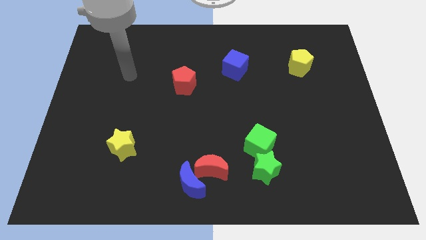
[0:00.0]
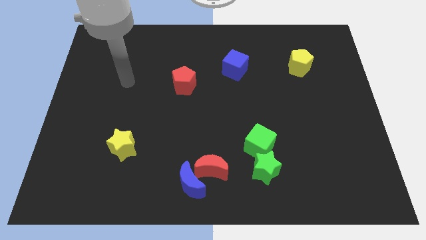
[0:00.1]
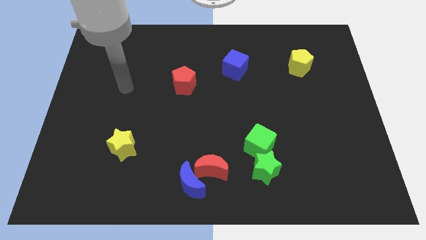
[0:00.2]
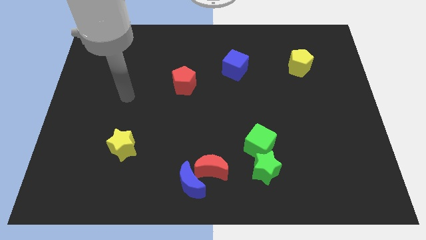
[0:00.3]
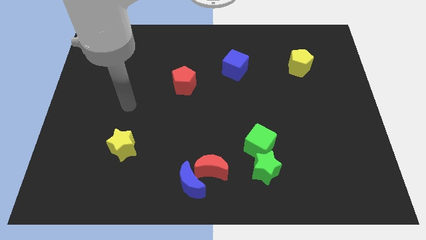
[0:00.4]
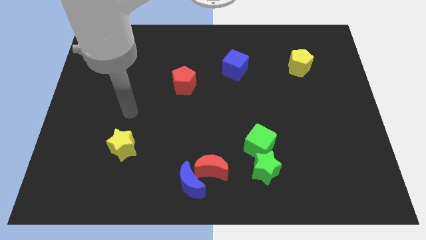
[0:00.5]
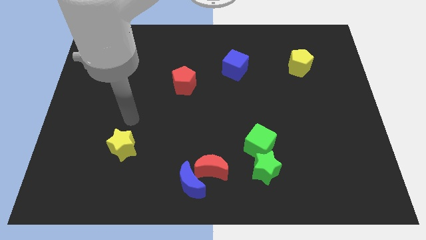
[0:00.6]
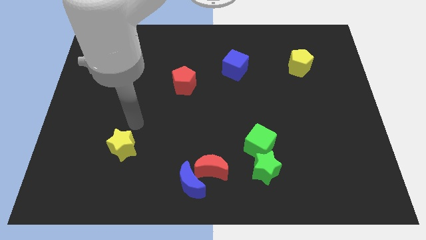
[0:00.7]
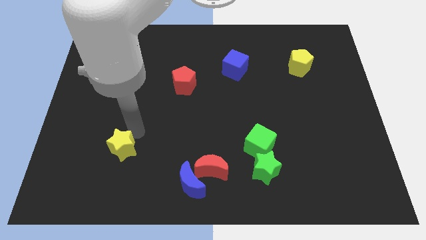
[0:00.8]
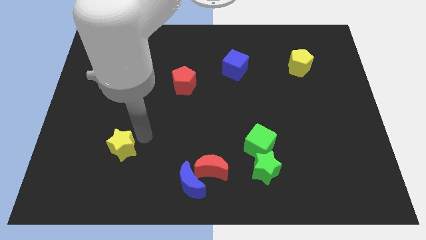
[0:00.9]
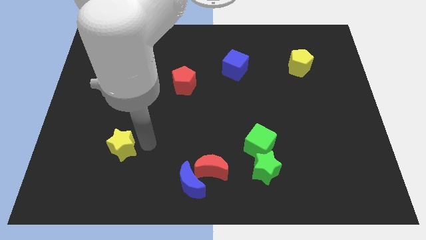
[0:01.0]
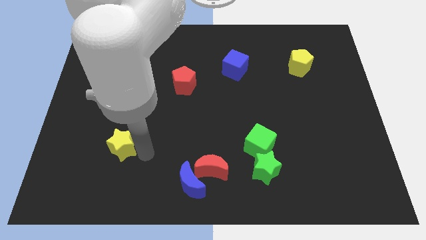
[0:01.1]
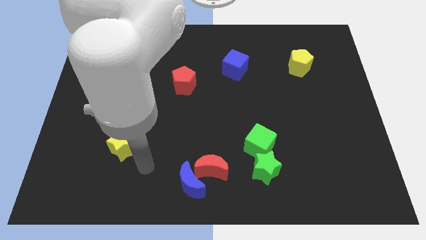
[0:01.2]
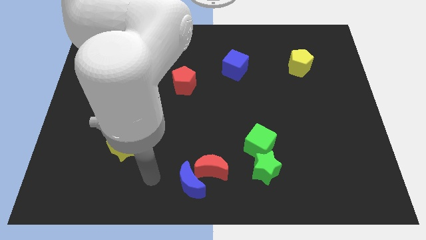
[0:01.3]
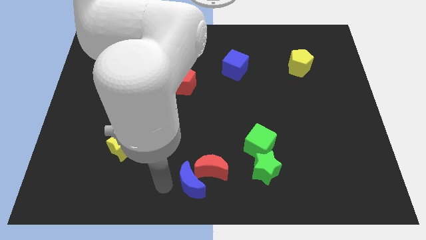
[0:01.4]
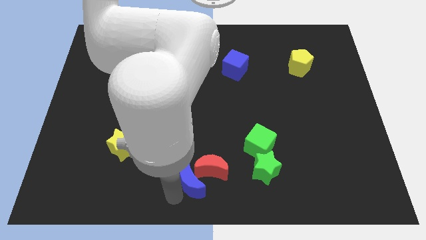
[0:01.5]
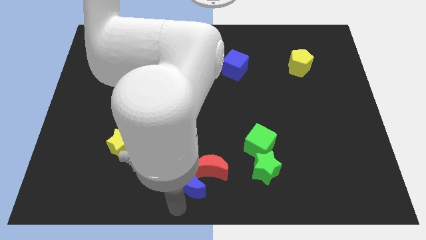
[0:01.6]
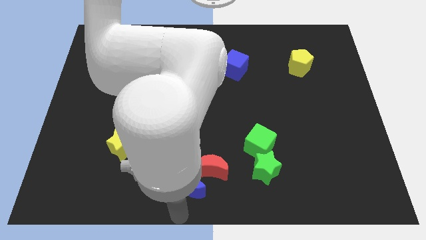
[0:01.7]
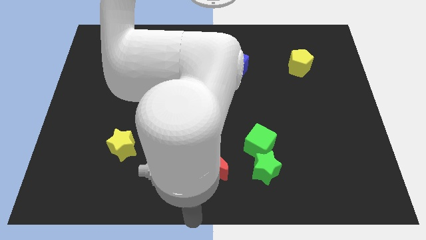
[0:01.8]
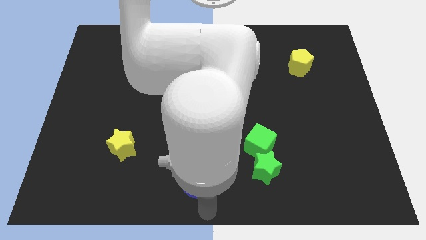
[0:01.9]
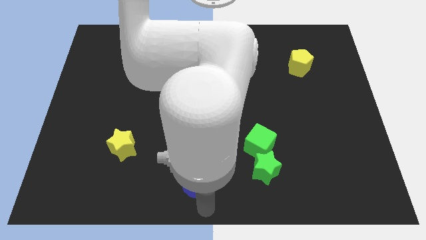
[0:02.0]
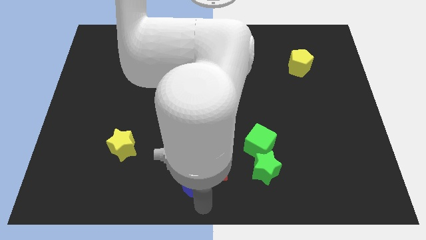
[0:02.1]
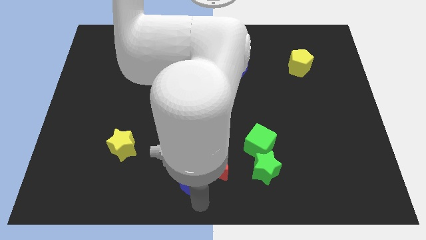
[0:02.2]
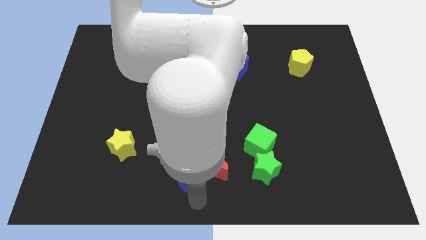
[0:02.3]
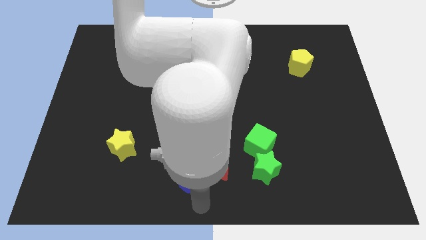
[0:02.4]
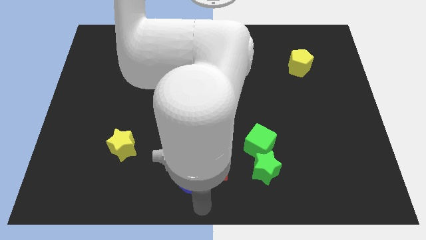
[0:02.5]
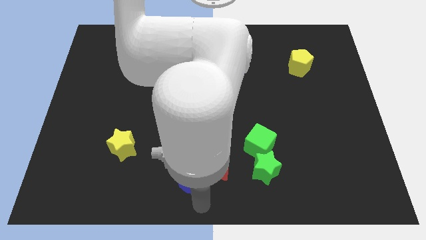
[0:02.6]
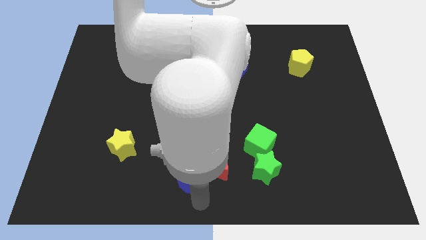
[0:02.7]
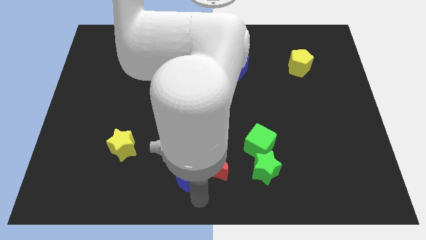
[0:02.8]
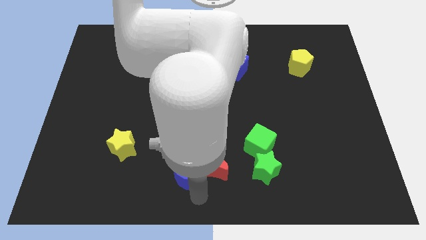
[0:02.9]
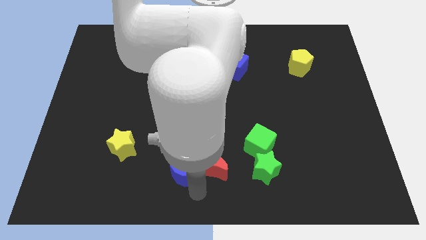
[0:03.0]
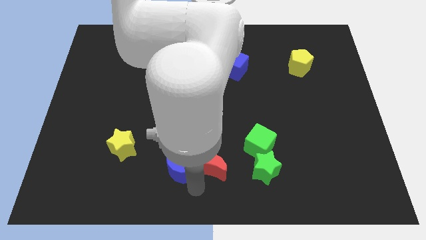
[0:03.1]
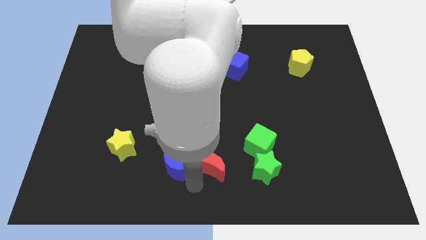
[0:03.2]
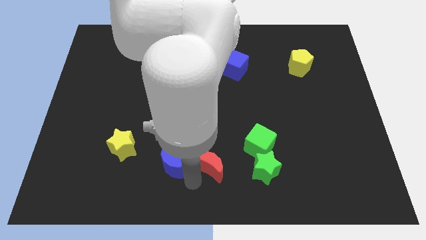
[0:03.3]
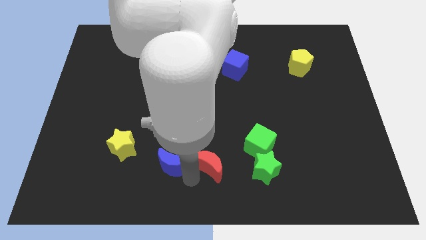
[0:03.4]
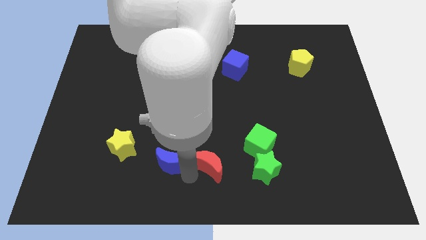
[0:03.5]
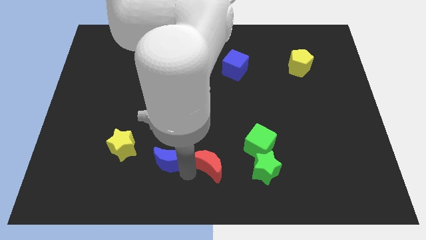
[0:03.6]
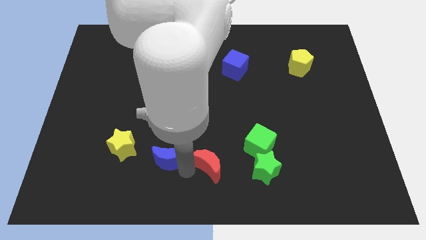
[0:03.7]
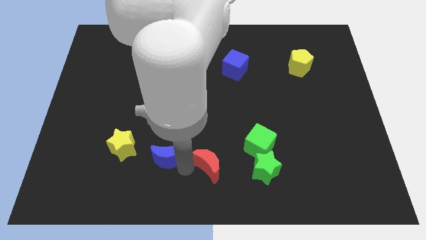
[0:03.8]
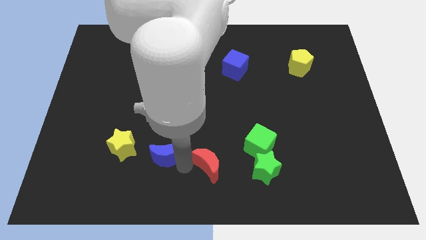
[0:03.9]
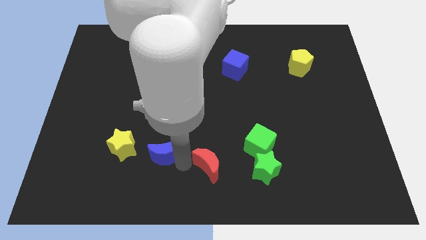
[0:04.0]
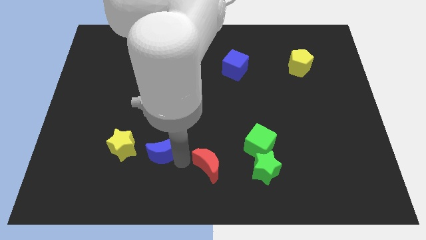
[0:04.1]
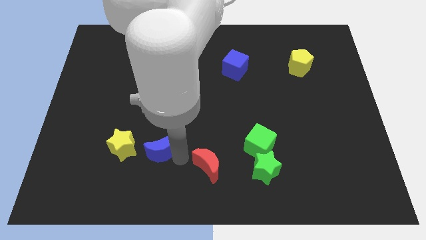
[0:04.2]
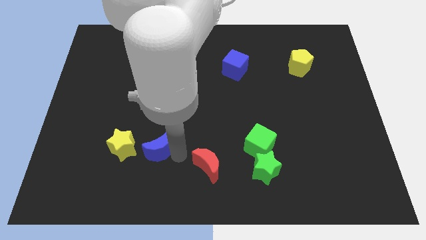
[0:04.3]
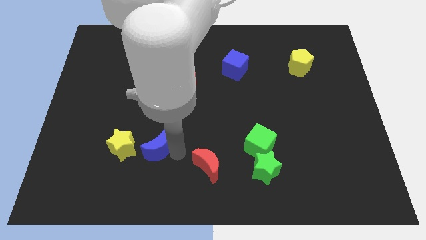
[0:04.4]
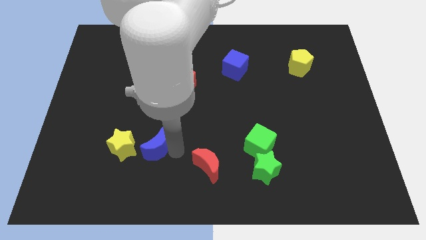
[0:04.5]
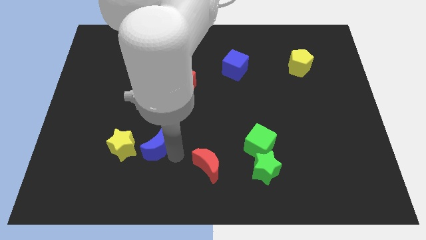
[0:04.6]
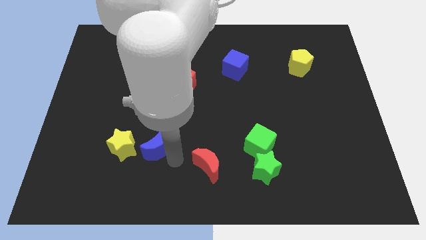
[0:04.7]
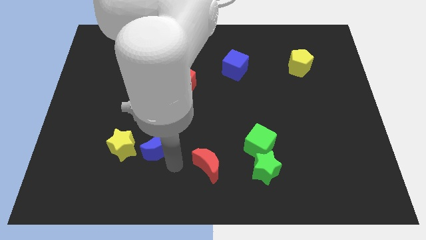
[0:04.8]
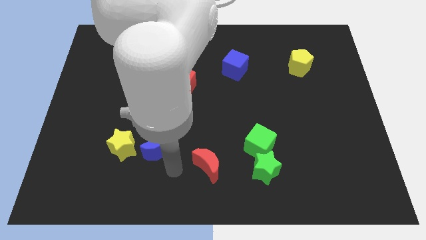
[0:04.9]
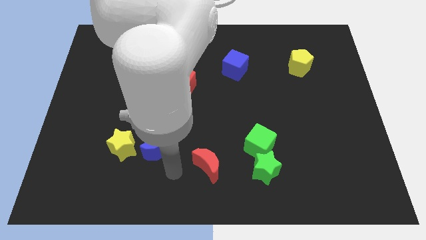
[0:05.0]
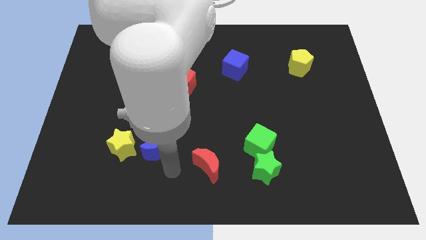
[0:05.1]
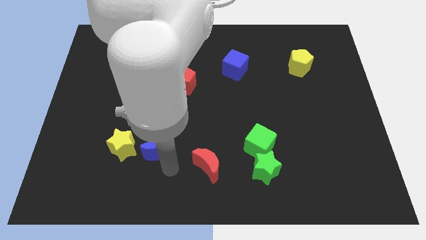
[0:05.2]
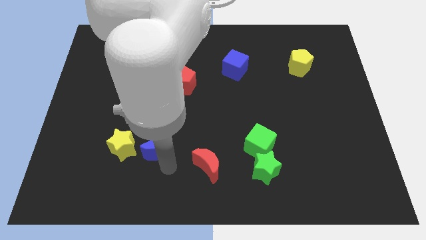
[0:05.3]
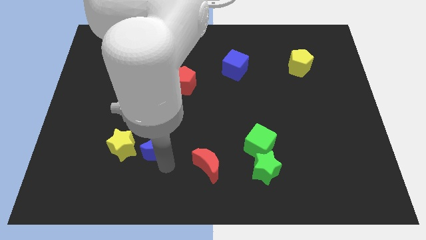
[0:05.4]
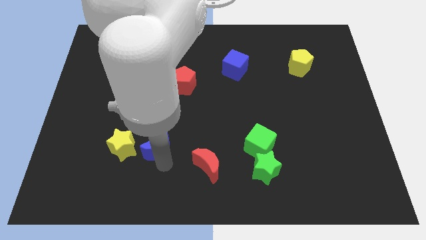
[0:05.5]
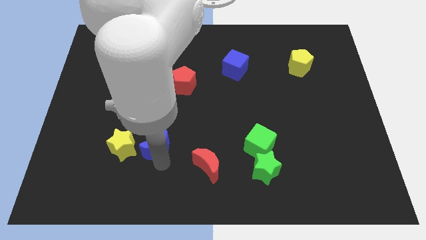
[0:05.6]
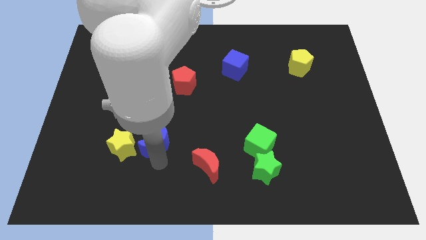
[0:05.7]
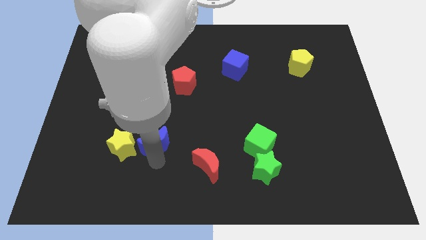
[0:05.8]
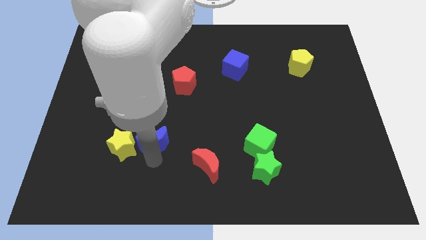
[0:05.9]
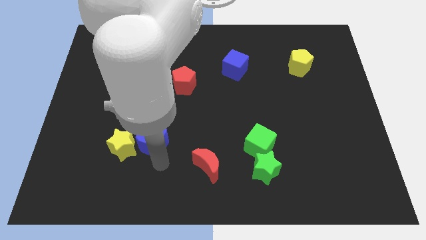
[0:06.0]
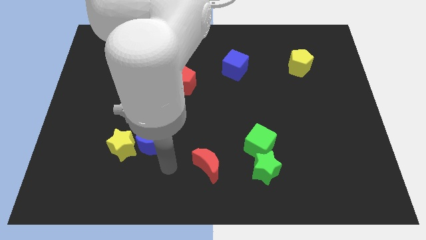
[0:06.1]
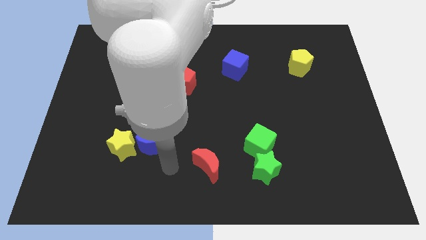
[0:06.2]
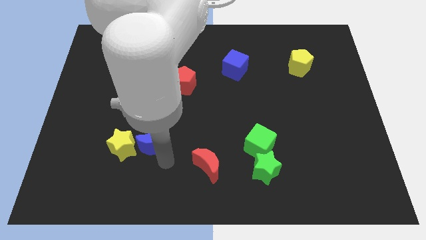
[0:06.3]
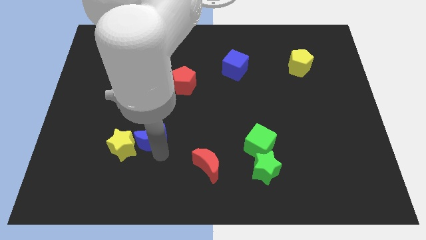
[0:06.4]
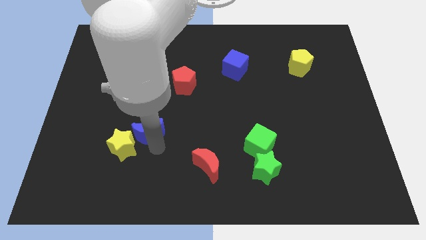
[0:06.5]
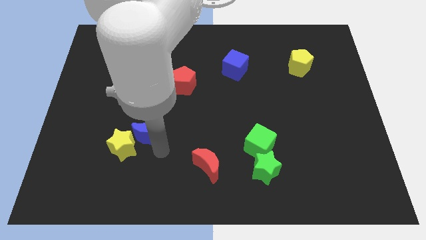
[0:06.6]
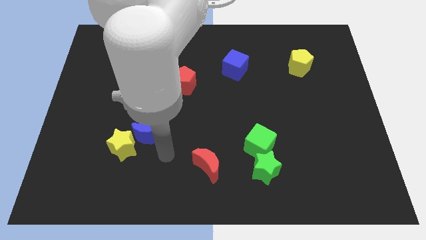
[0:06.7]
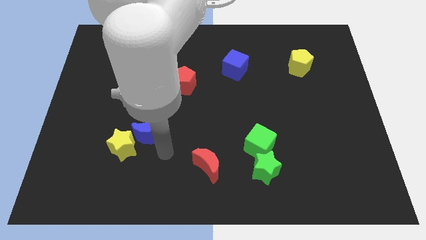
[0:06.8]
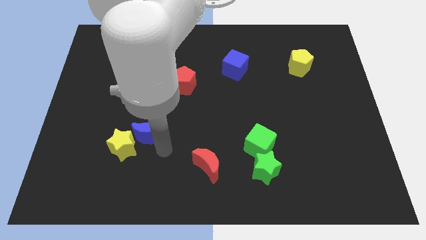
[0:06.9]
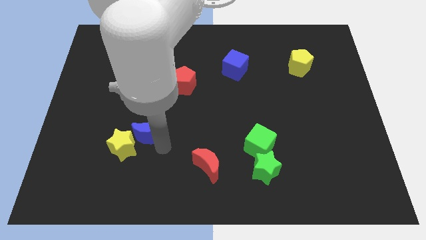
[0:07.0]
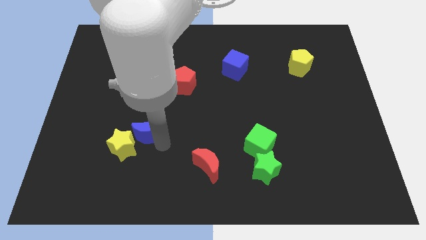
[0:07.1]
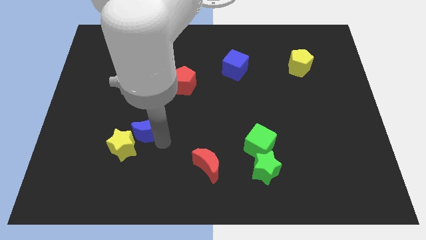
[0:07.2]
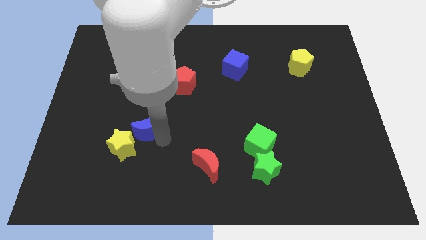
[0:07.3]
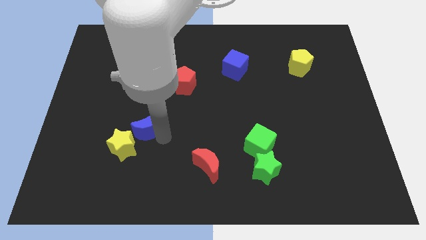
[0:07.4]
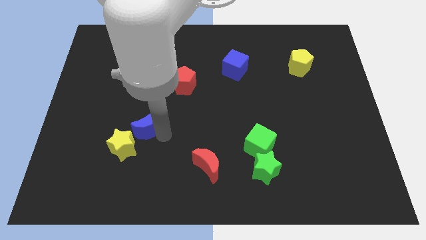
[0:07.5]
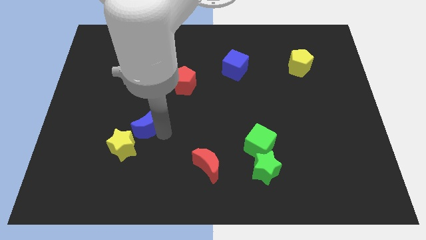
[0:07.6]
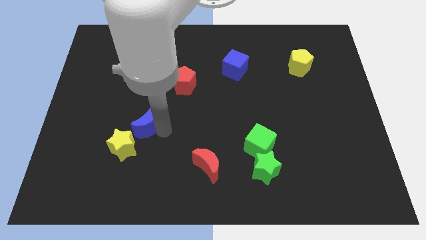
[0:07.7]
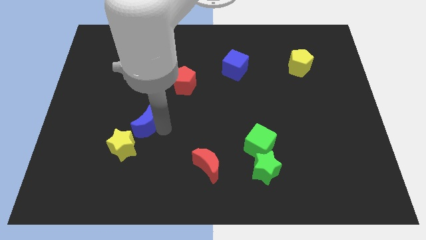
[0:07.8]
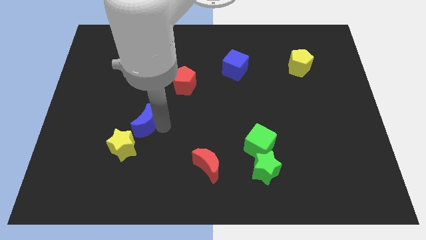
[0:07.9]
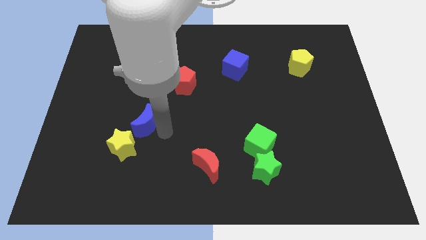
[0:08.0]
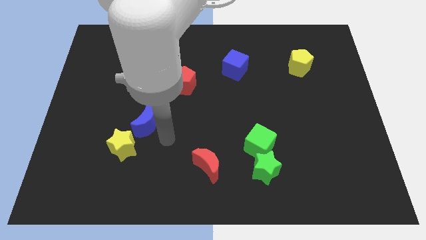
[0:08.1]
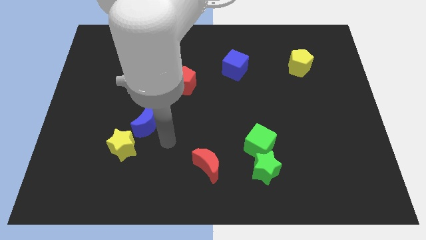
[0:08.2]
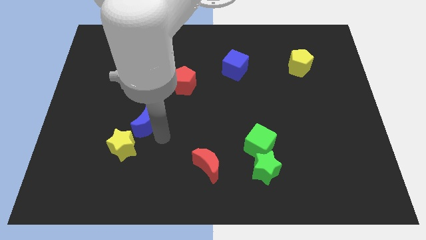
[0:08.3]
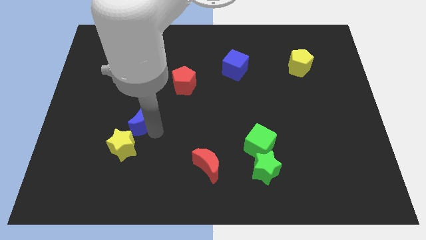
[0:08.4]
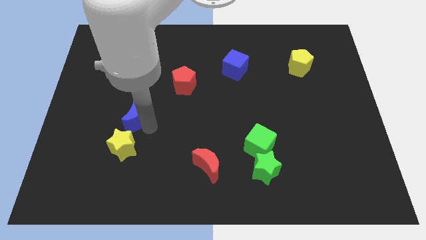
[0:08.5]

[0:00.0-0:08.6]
move the blue moon up and left
